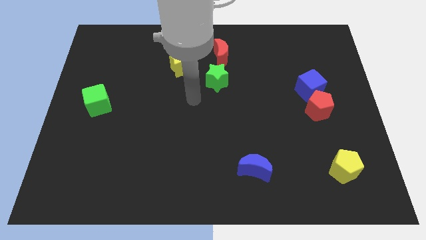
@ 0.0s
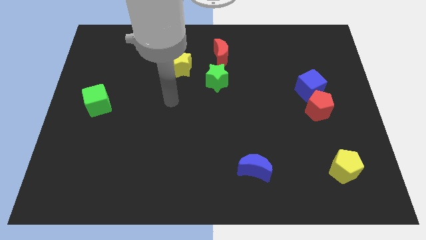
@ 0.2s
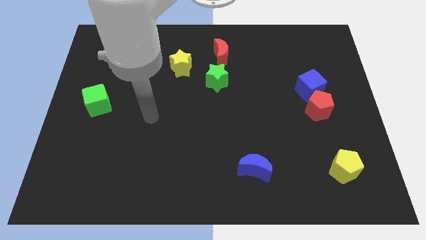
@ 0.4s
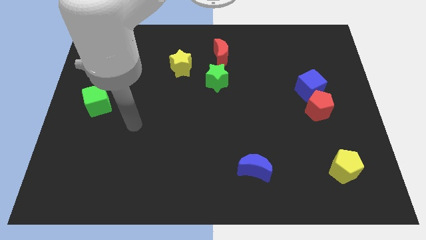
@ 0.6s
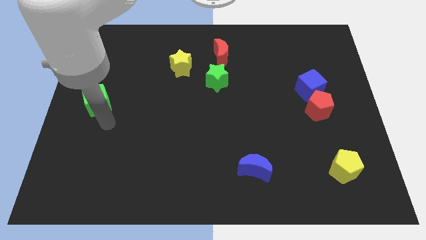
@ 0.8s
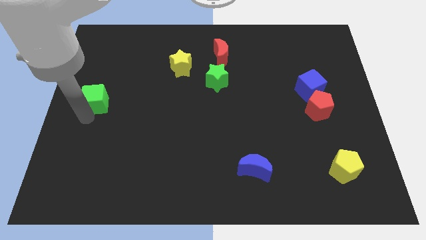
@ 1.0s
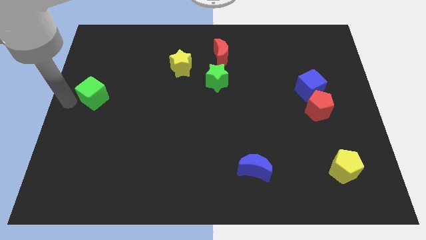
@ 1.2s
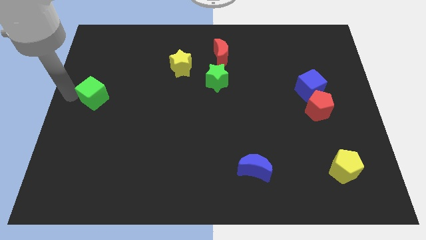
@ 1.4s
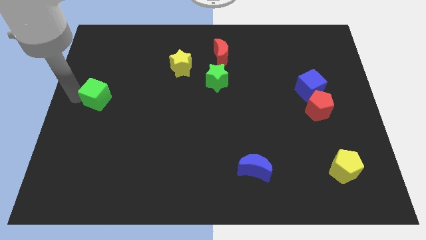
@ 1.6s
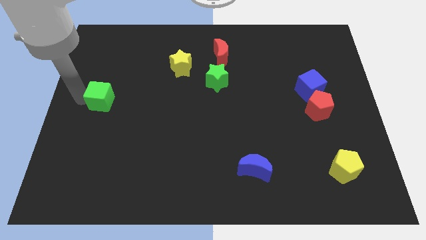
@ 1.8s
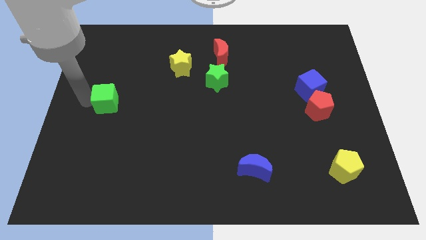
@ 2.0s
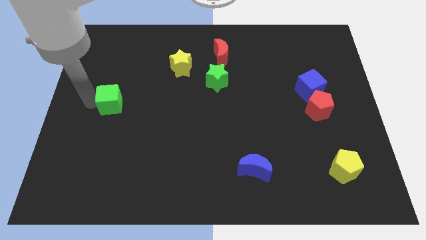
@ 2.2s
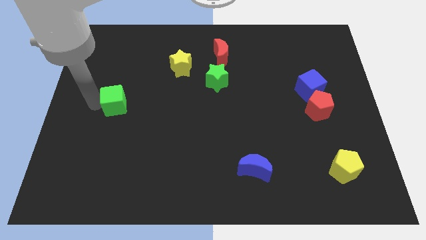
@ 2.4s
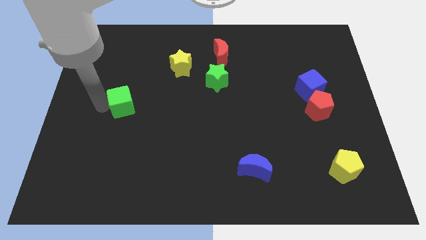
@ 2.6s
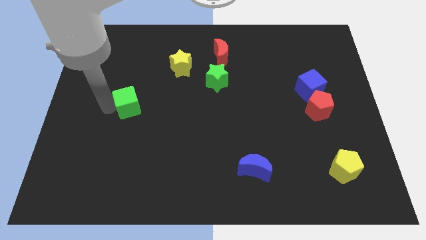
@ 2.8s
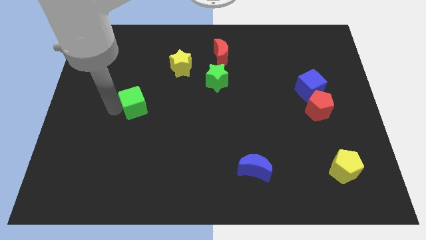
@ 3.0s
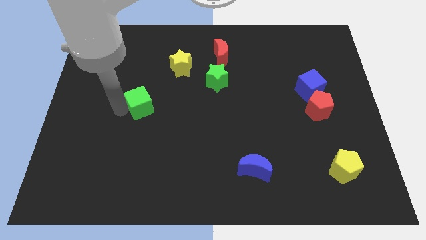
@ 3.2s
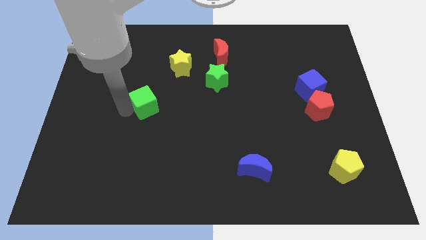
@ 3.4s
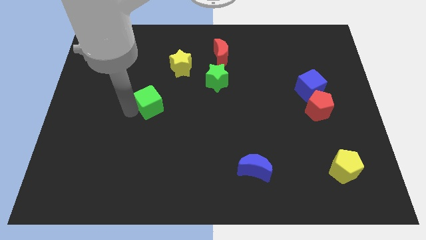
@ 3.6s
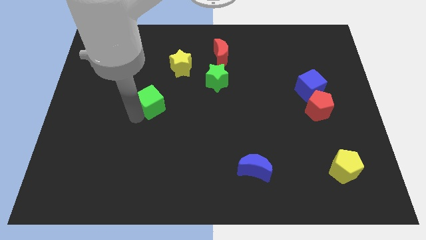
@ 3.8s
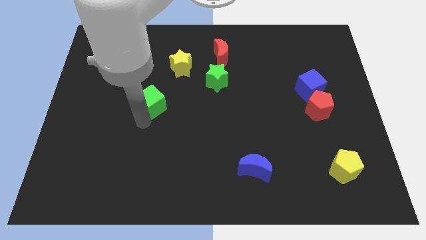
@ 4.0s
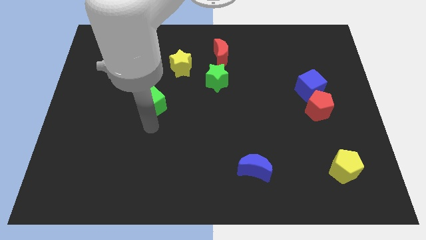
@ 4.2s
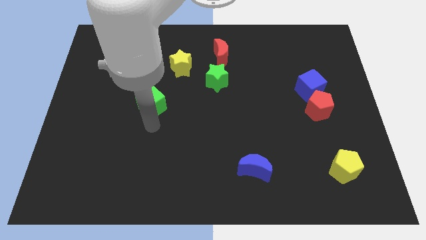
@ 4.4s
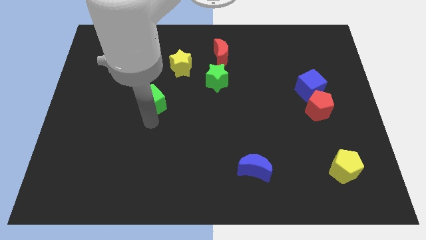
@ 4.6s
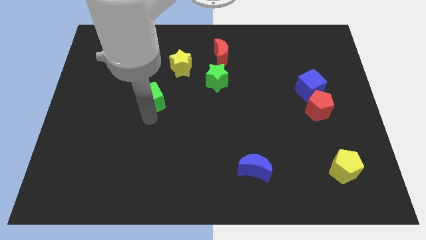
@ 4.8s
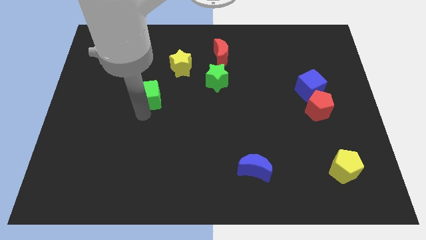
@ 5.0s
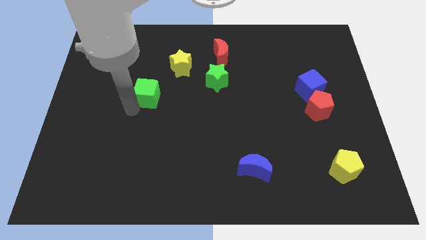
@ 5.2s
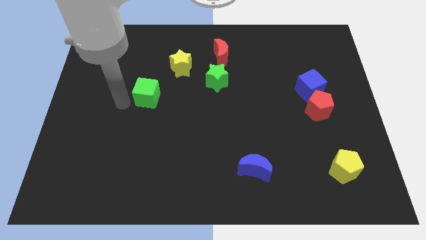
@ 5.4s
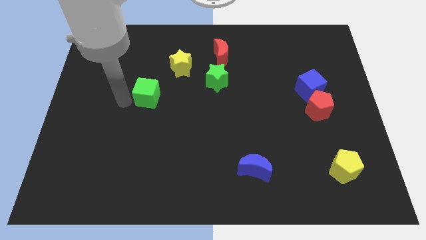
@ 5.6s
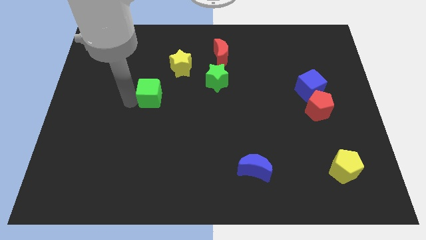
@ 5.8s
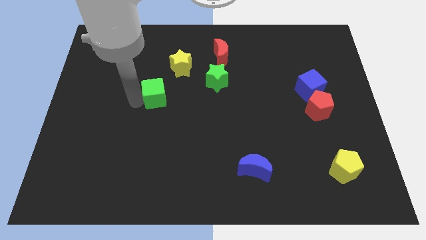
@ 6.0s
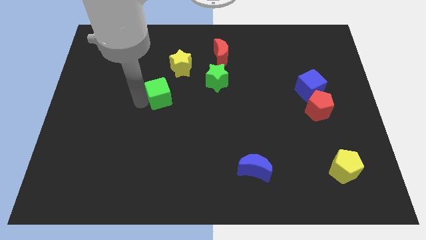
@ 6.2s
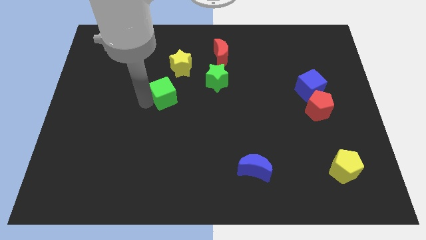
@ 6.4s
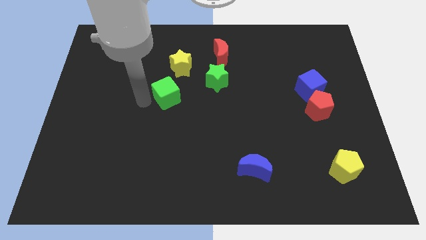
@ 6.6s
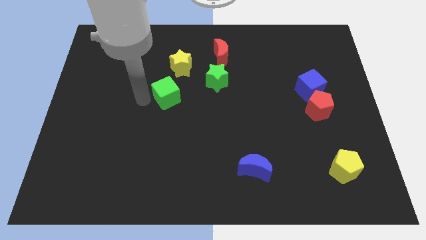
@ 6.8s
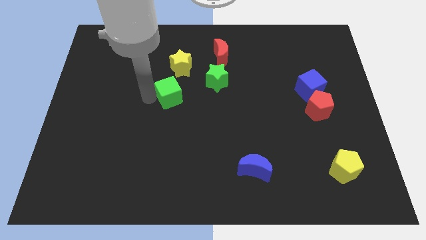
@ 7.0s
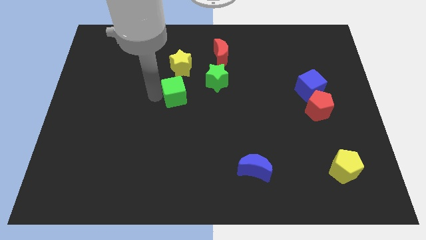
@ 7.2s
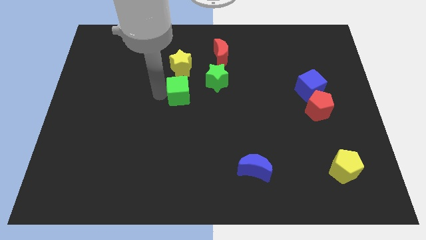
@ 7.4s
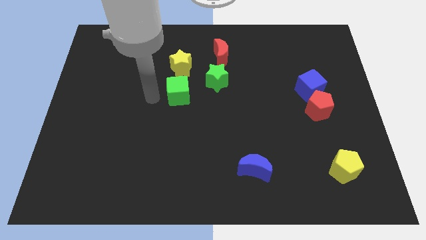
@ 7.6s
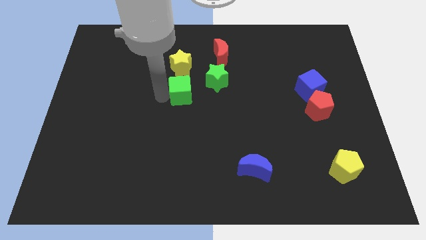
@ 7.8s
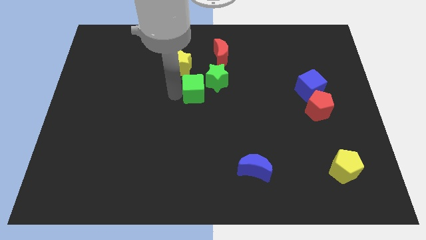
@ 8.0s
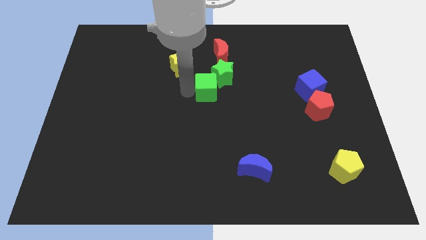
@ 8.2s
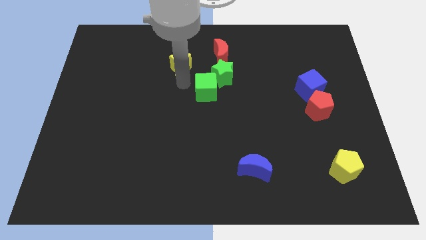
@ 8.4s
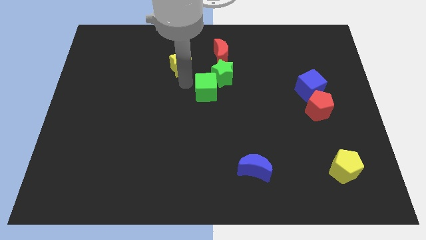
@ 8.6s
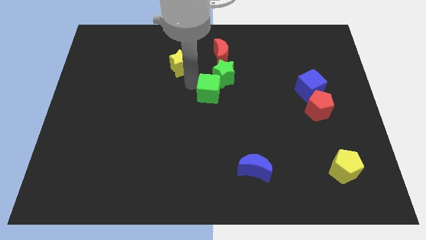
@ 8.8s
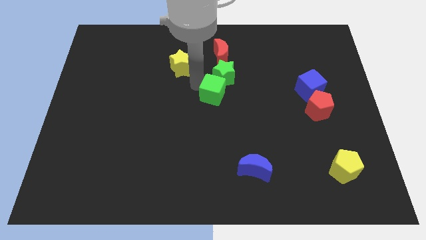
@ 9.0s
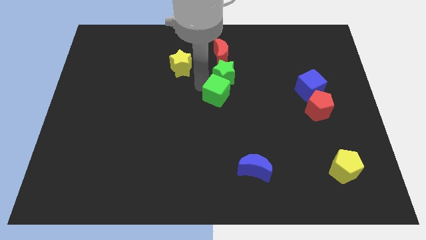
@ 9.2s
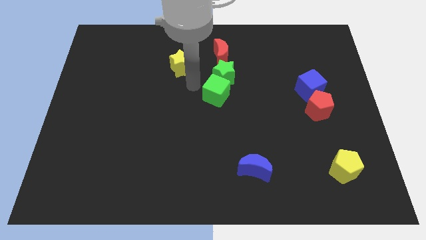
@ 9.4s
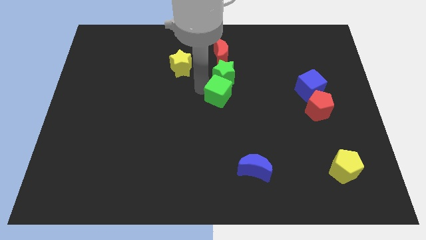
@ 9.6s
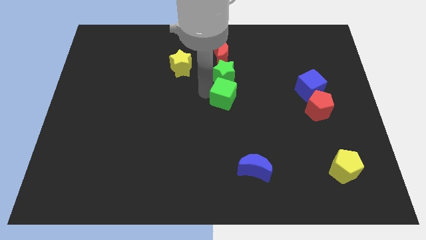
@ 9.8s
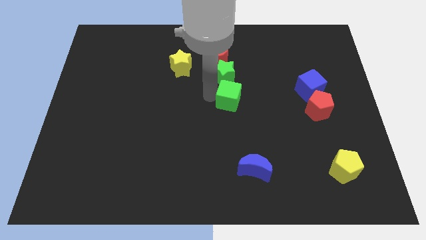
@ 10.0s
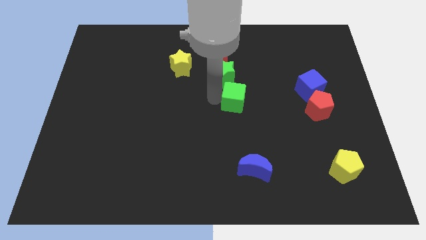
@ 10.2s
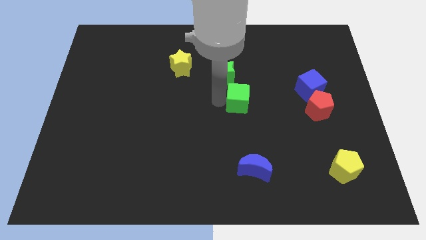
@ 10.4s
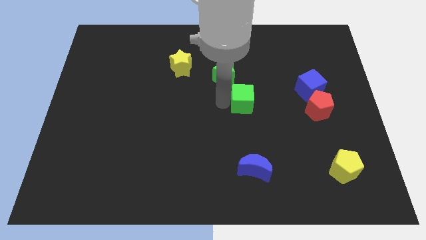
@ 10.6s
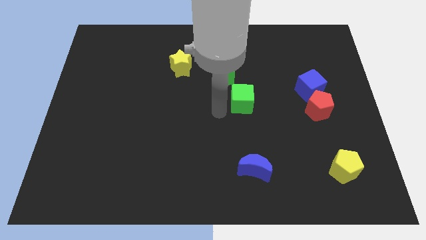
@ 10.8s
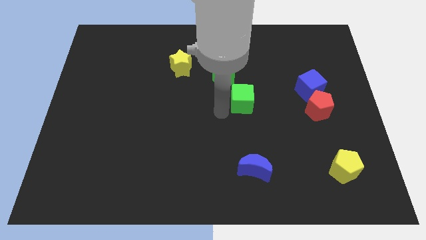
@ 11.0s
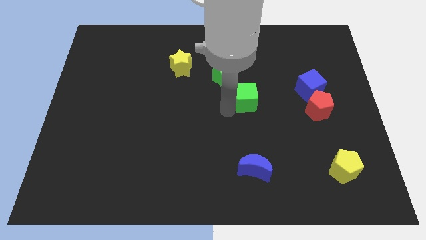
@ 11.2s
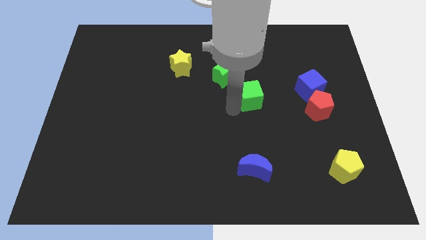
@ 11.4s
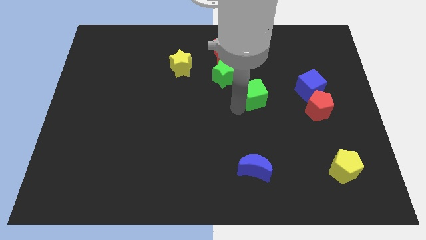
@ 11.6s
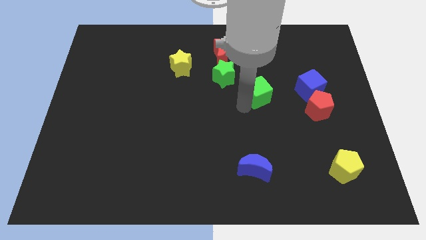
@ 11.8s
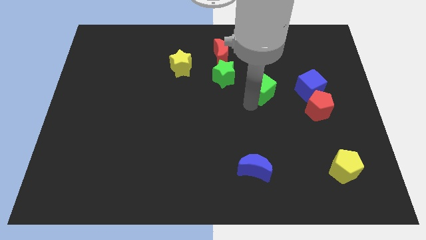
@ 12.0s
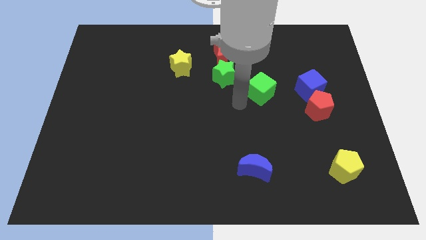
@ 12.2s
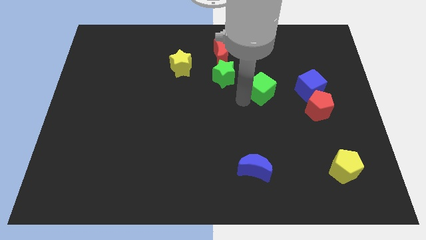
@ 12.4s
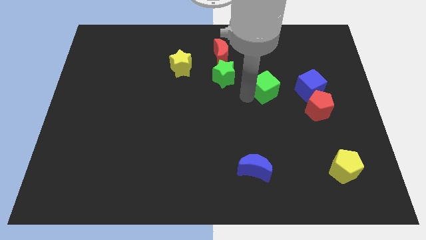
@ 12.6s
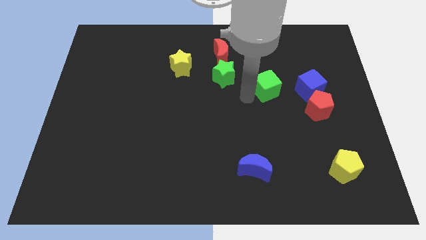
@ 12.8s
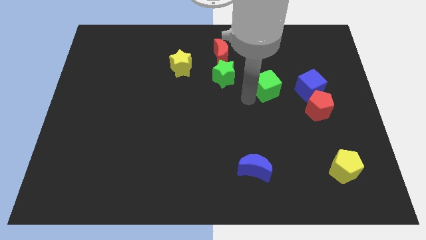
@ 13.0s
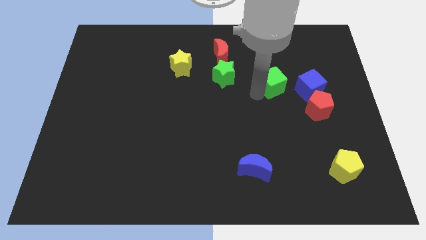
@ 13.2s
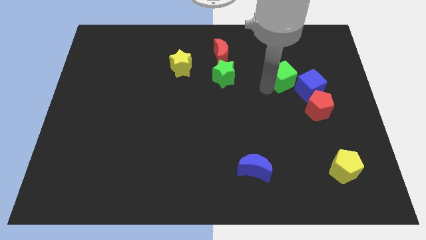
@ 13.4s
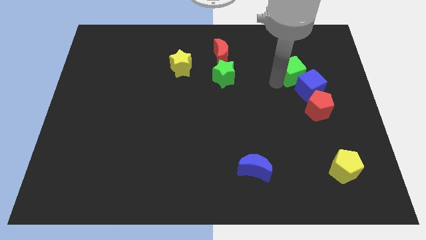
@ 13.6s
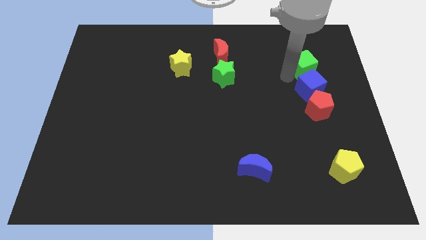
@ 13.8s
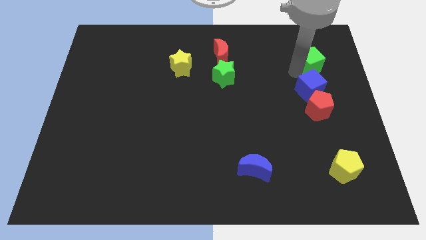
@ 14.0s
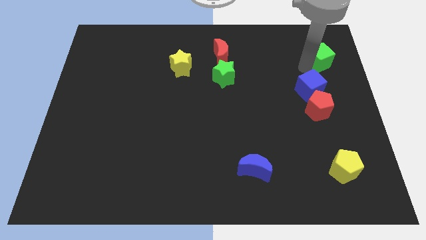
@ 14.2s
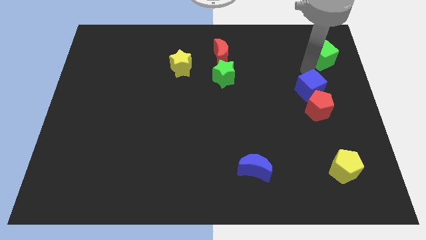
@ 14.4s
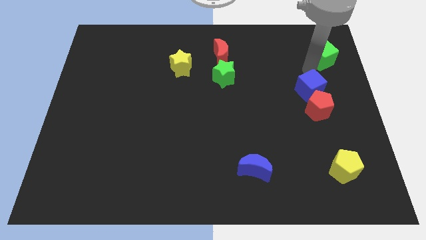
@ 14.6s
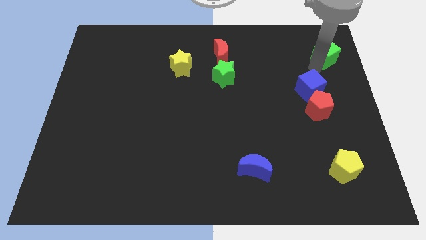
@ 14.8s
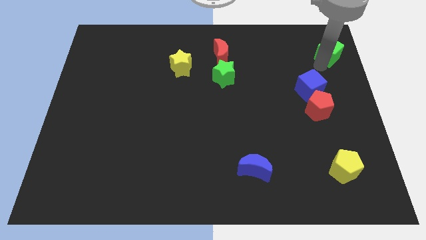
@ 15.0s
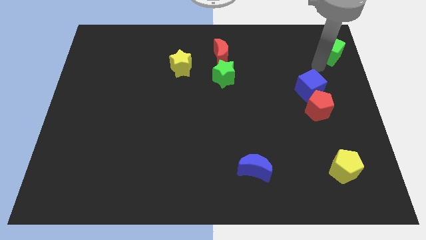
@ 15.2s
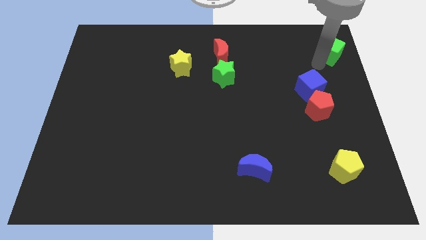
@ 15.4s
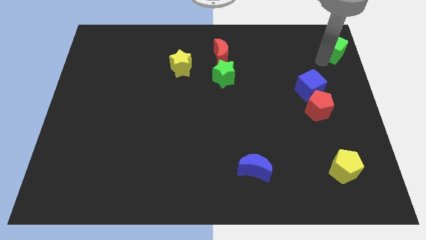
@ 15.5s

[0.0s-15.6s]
move the green cube to the upper right corner
